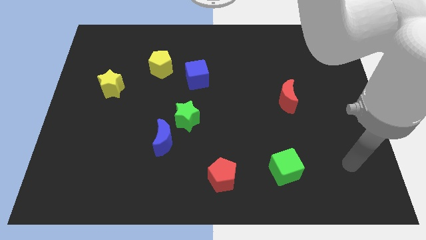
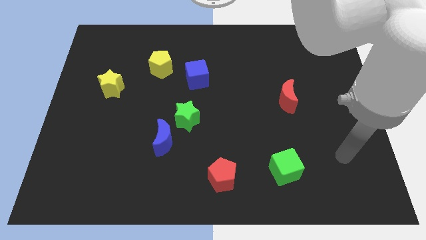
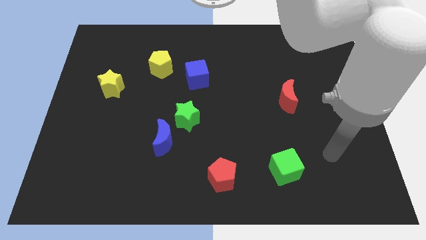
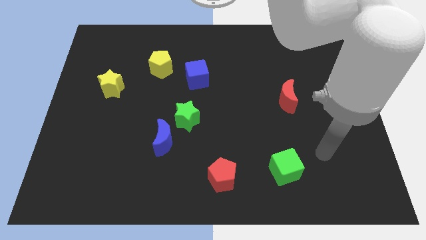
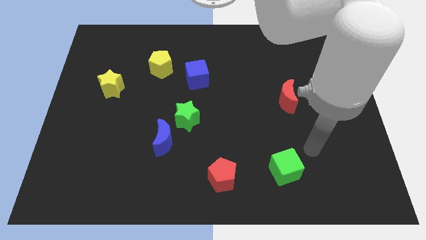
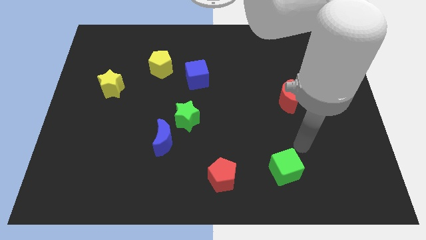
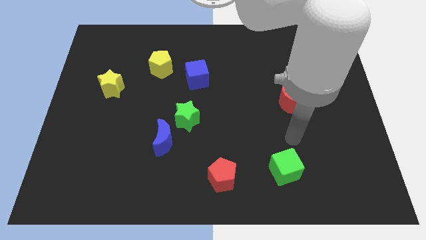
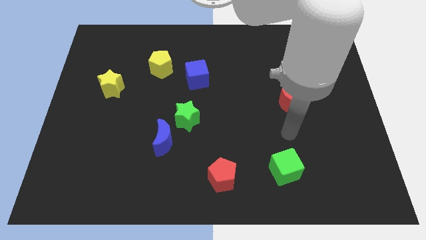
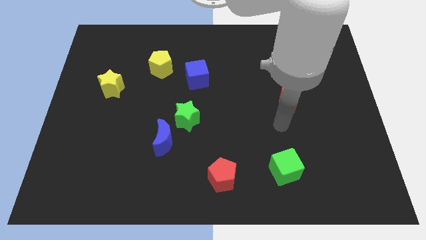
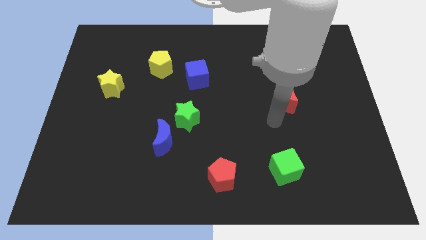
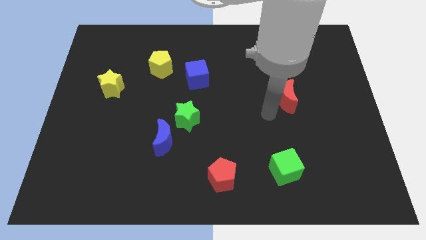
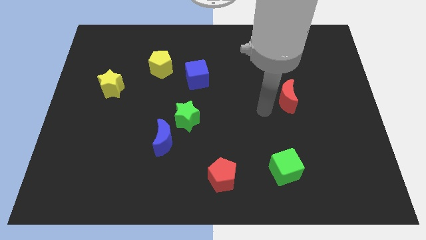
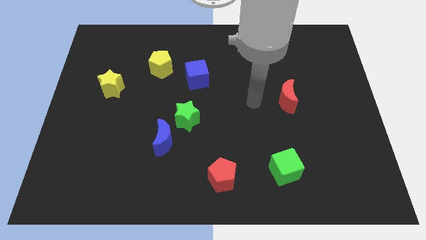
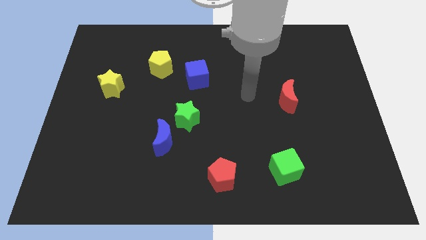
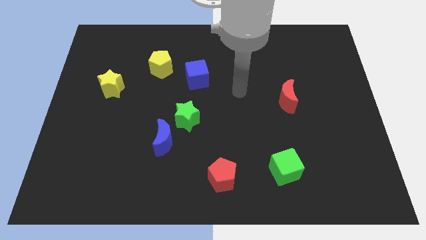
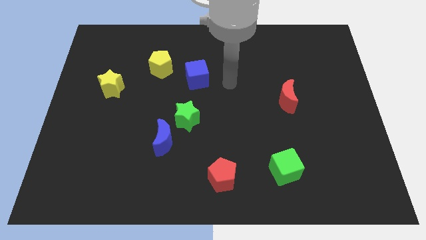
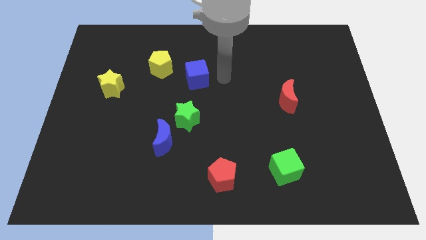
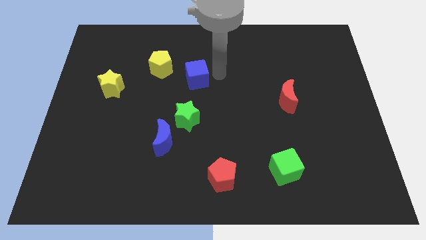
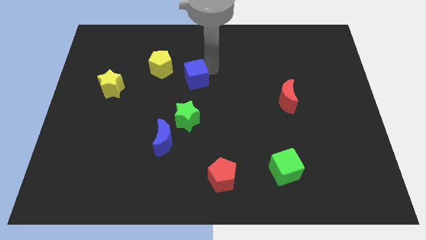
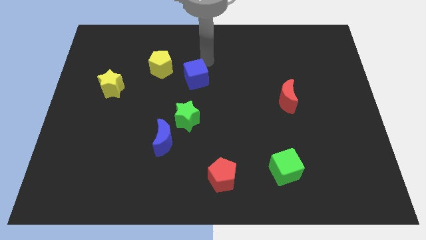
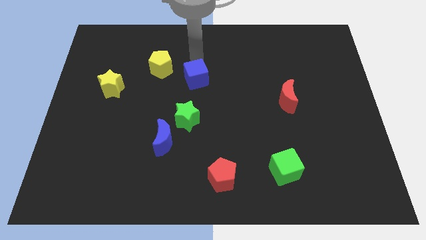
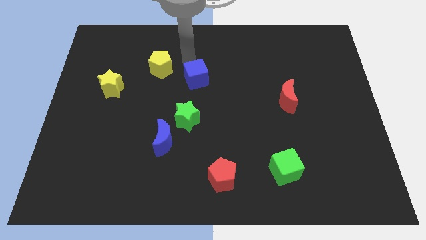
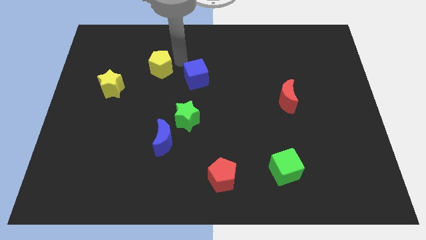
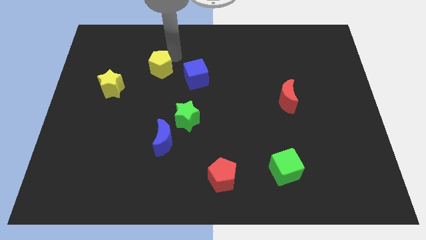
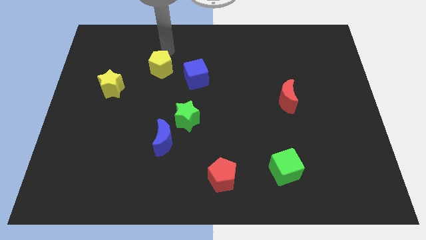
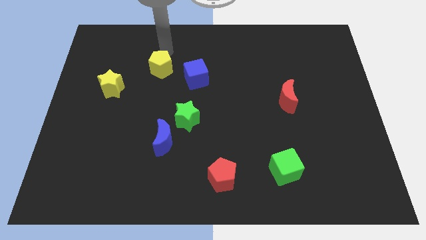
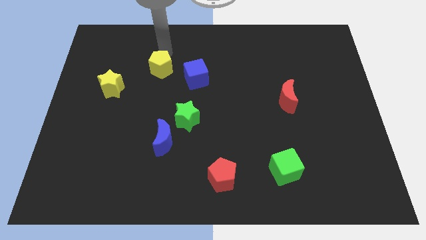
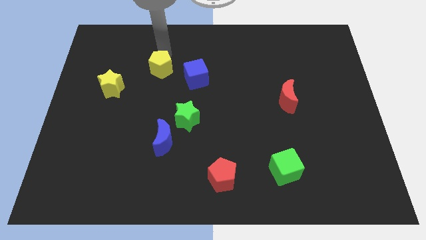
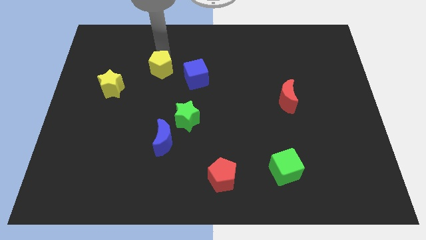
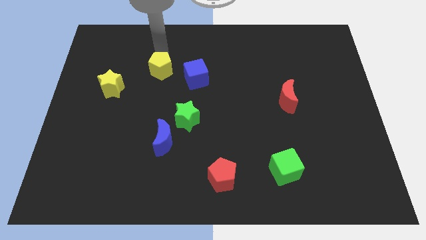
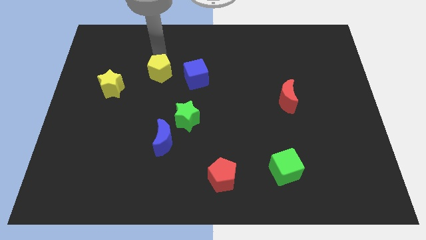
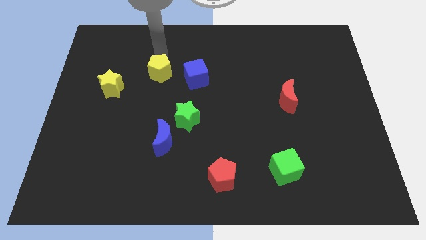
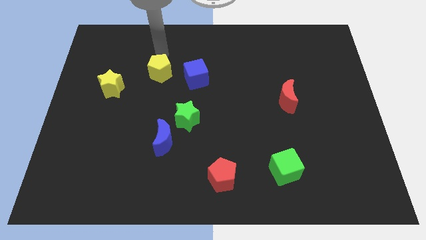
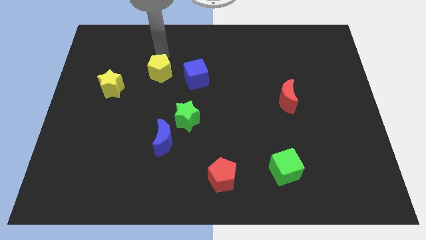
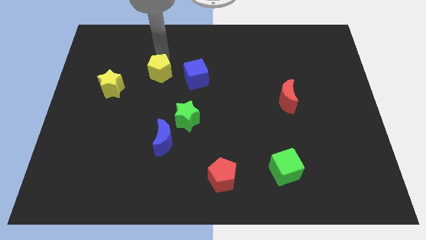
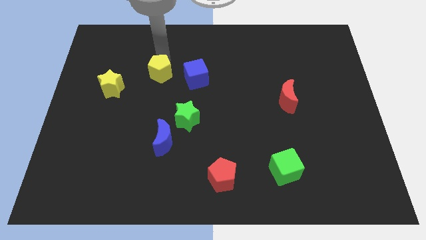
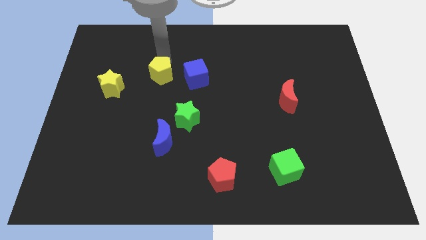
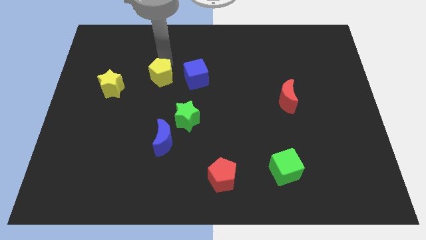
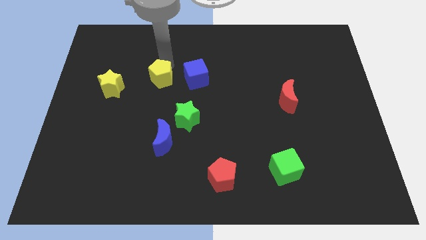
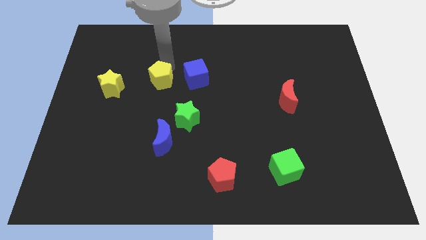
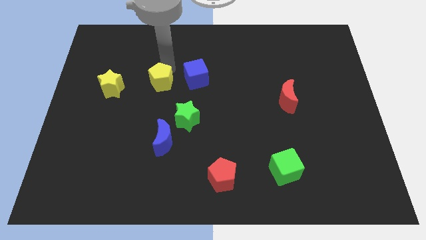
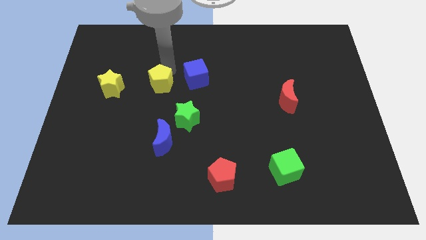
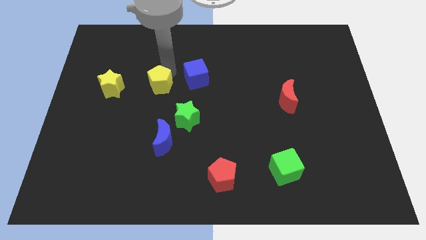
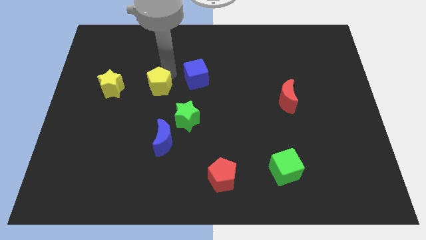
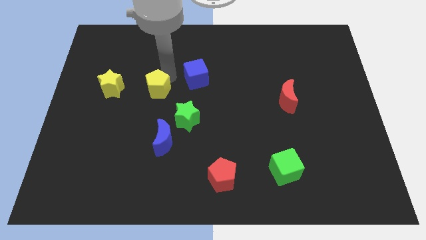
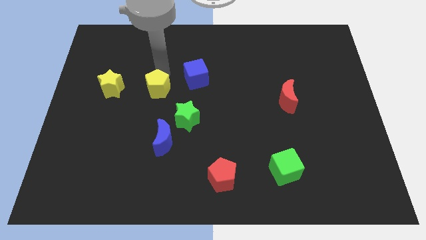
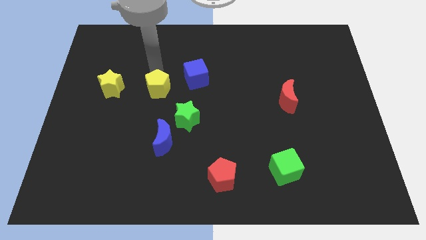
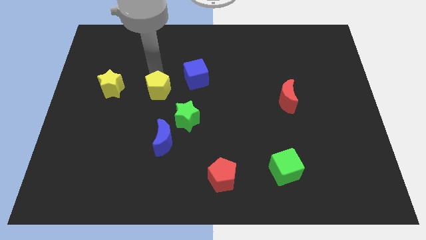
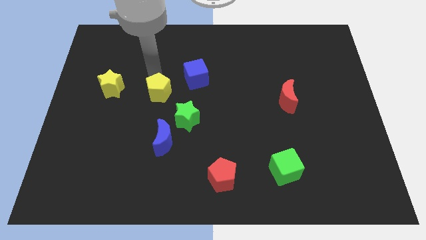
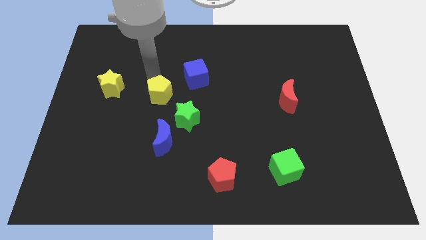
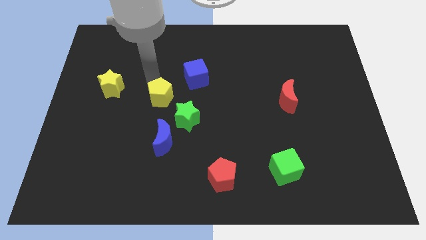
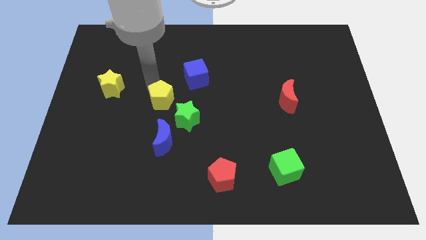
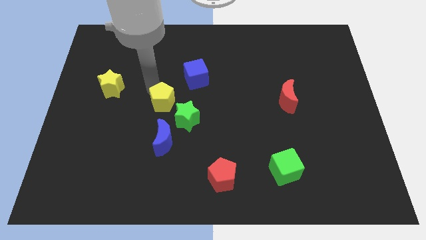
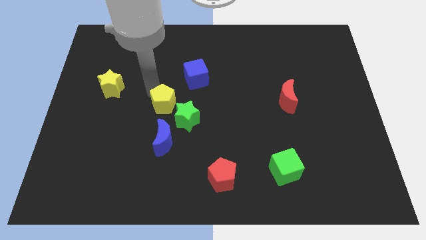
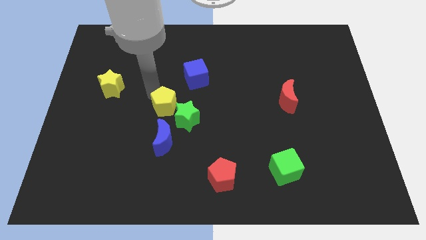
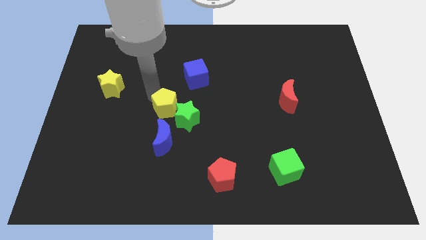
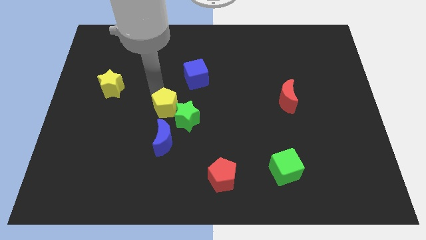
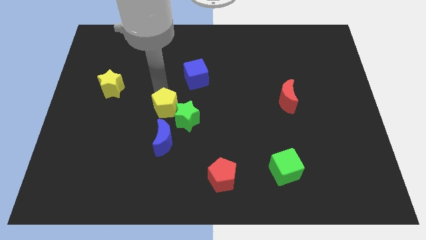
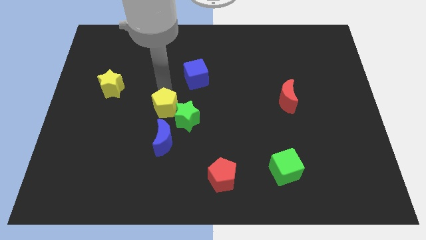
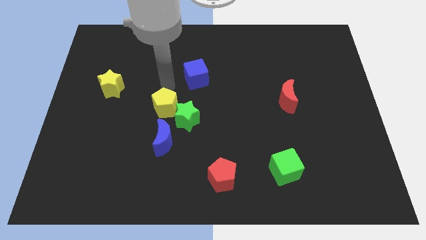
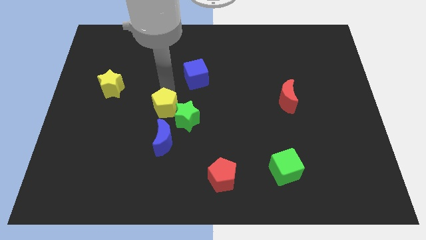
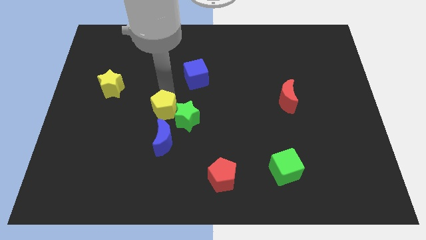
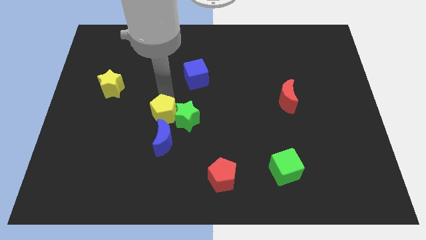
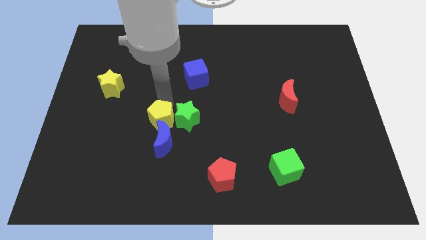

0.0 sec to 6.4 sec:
move the yellow pentagon towards the blue moon

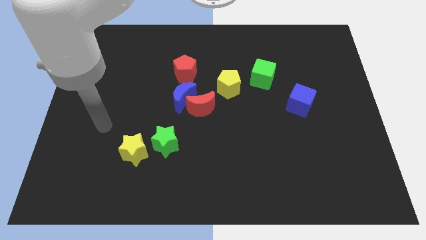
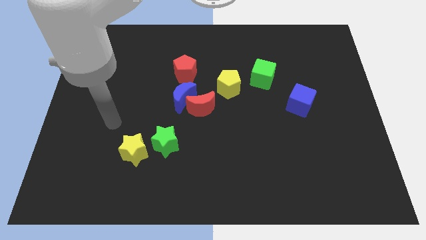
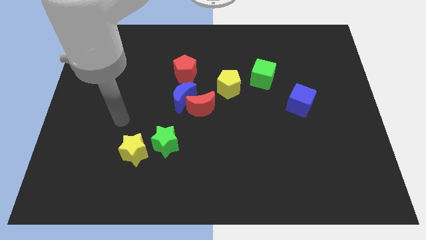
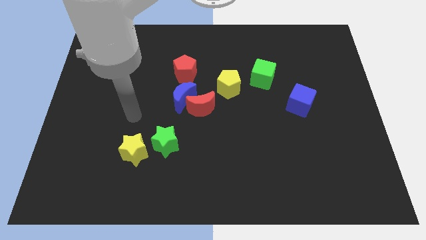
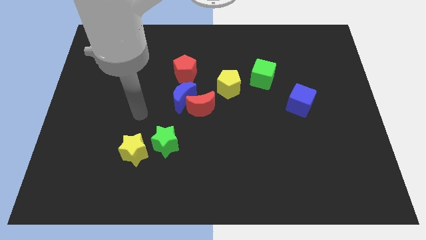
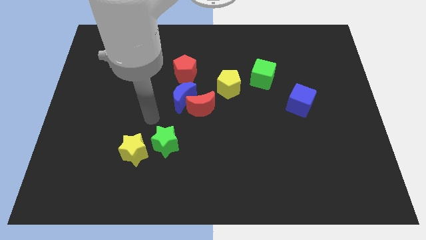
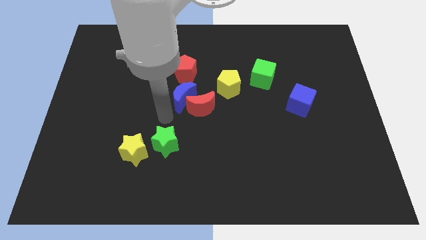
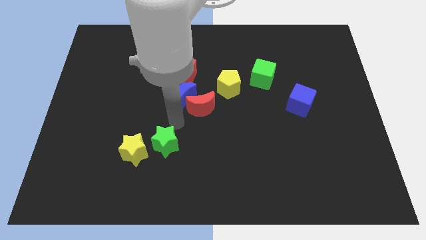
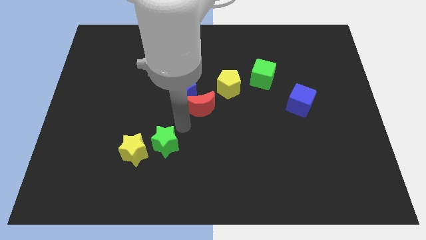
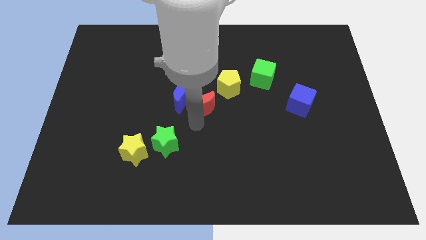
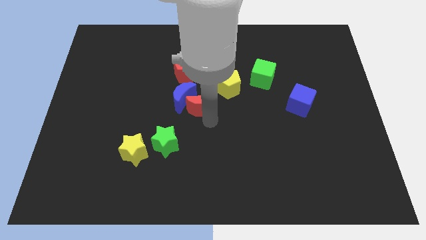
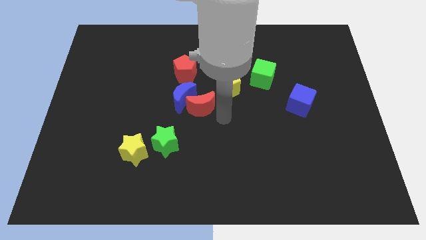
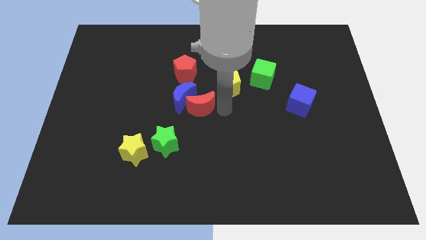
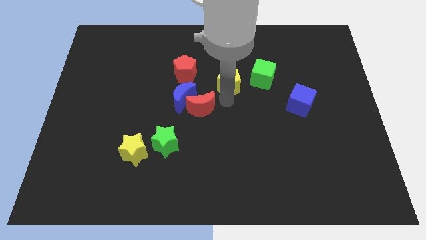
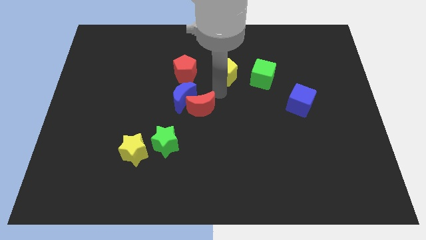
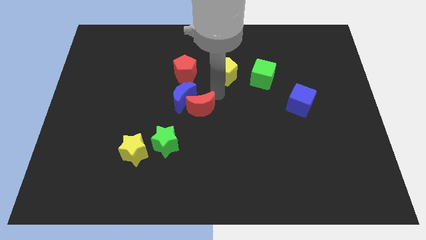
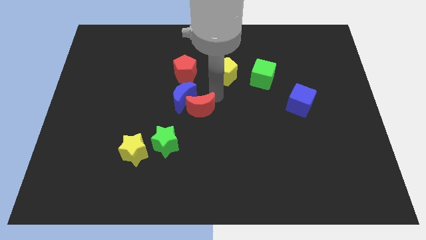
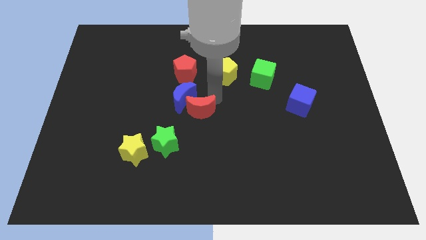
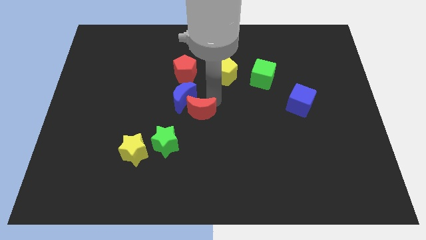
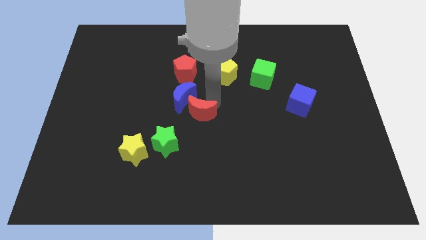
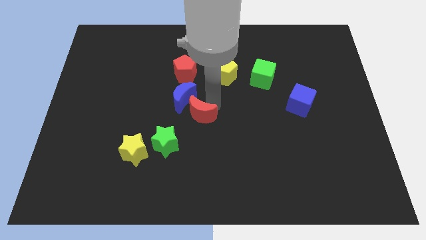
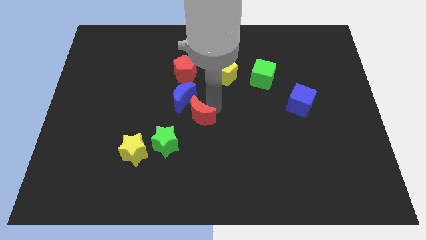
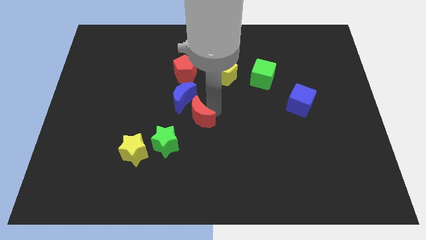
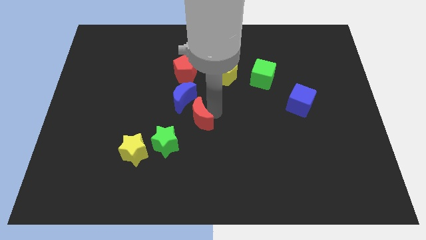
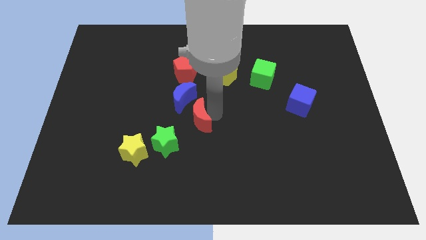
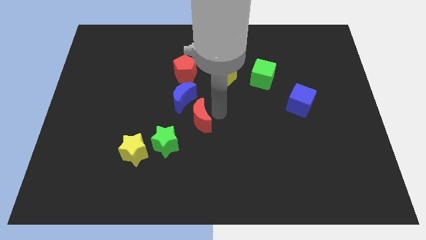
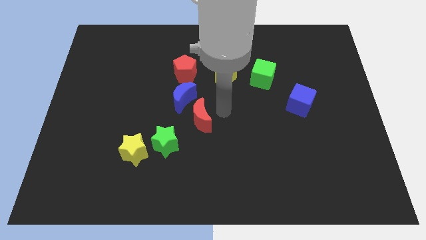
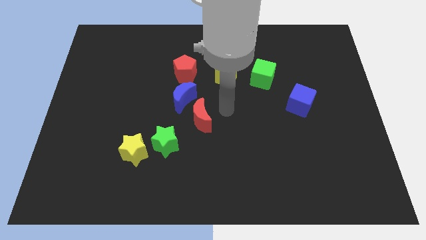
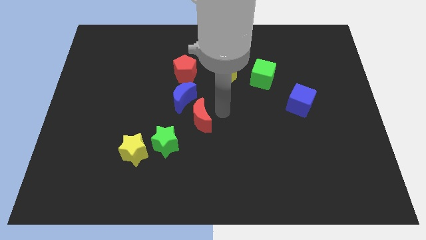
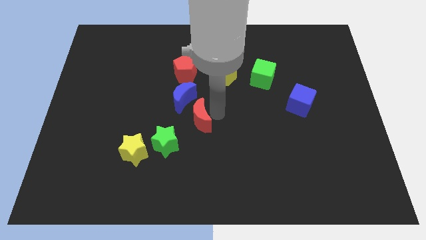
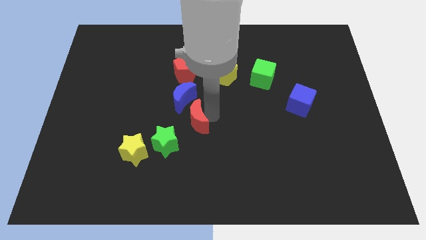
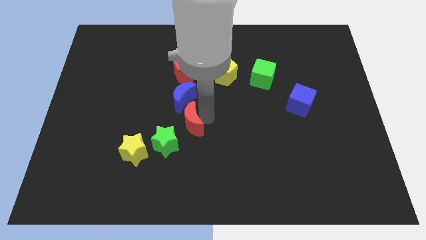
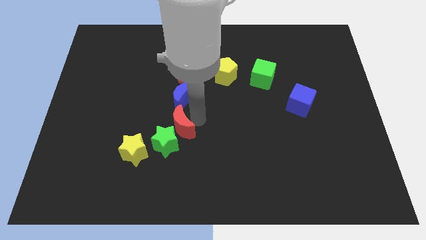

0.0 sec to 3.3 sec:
put the red moon to the green star
